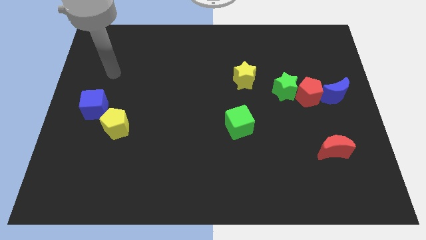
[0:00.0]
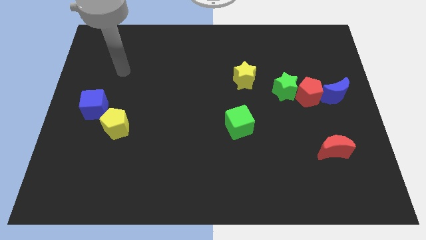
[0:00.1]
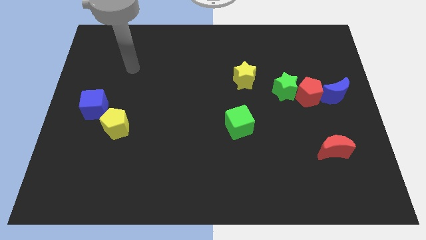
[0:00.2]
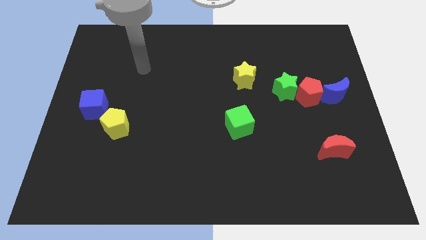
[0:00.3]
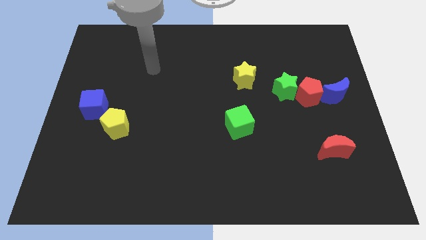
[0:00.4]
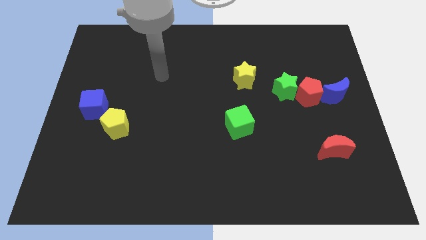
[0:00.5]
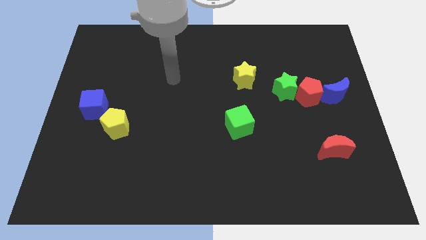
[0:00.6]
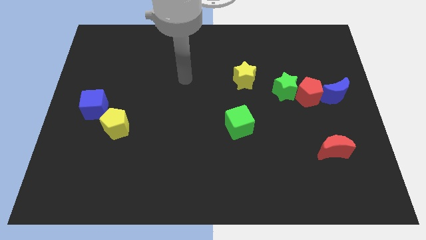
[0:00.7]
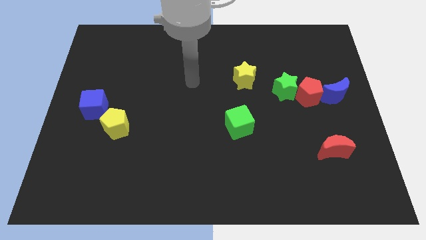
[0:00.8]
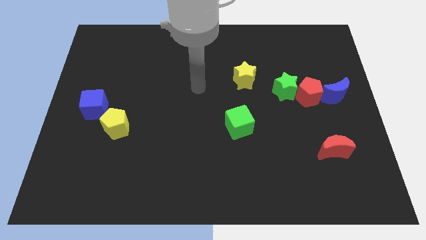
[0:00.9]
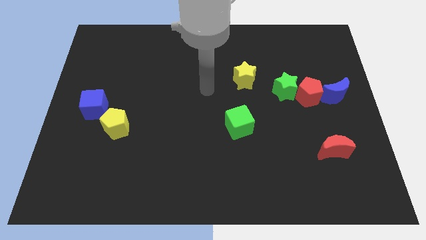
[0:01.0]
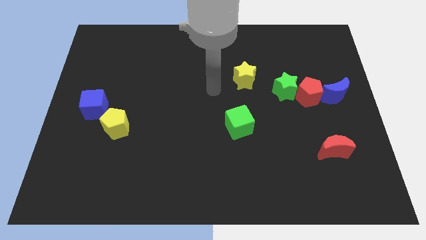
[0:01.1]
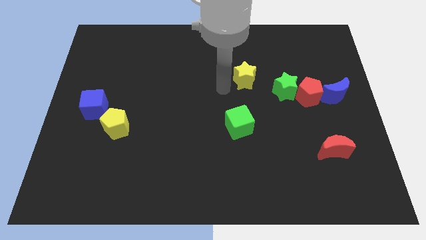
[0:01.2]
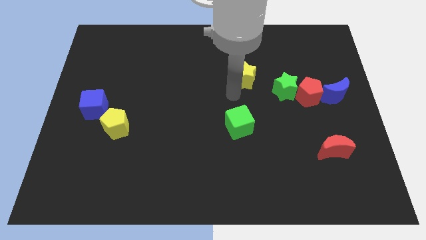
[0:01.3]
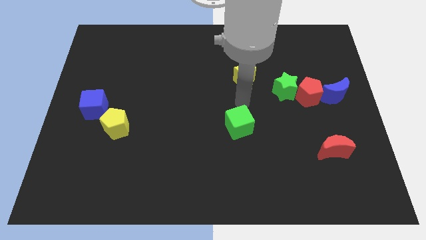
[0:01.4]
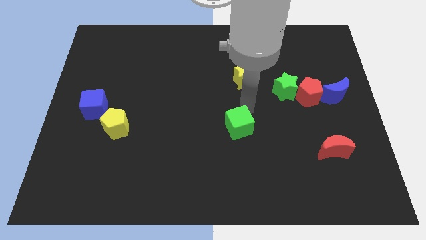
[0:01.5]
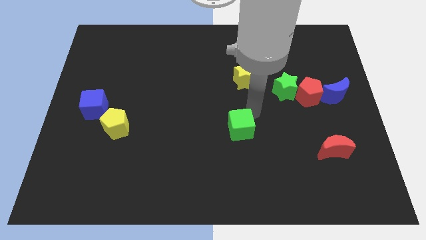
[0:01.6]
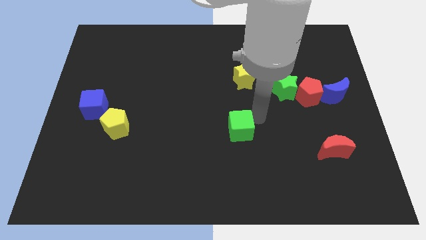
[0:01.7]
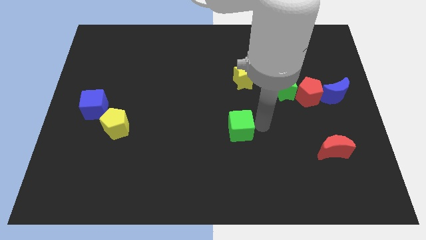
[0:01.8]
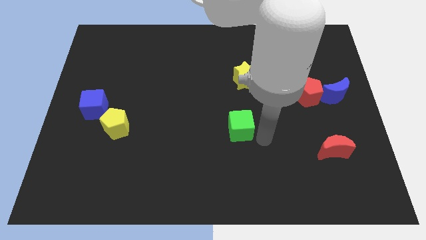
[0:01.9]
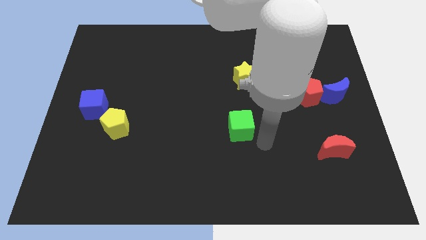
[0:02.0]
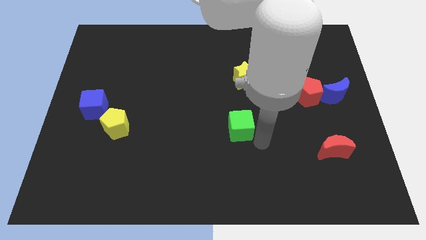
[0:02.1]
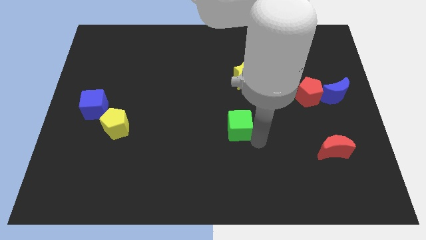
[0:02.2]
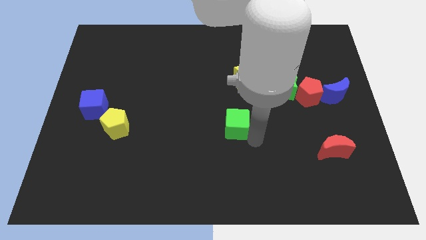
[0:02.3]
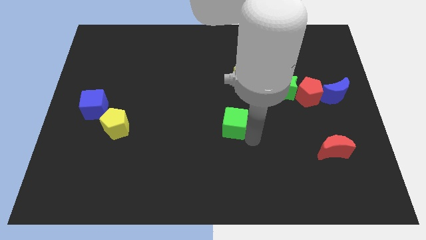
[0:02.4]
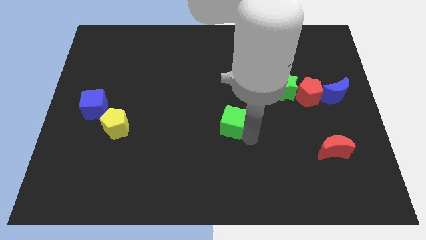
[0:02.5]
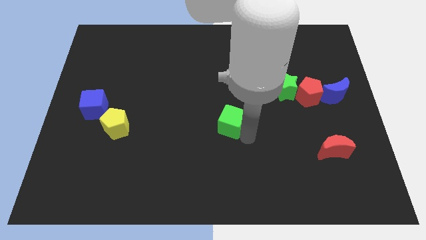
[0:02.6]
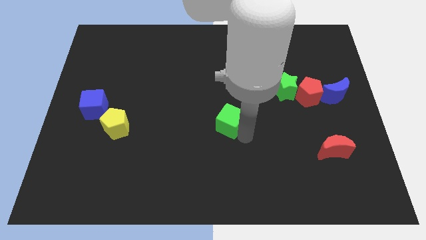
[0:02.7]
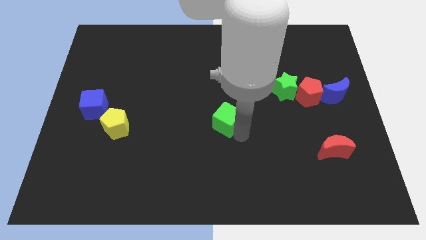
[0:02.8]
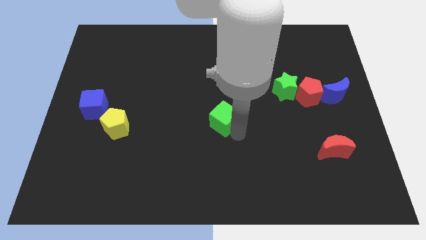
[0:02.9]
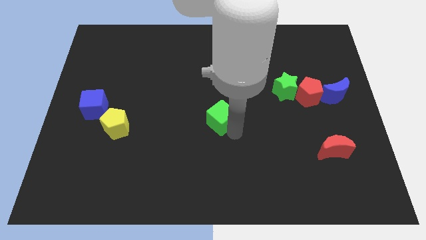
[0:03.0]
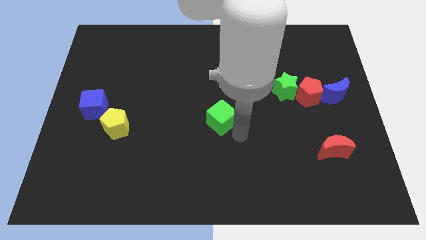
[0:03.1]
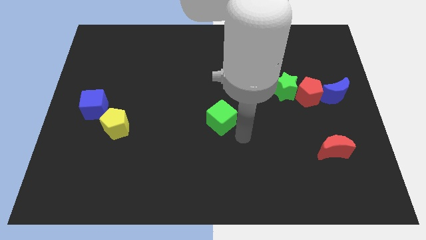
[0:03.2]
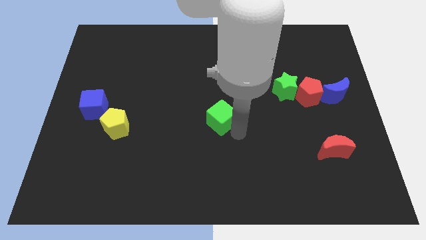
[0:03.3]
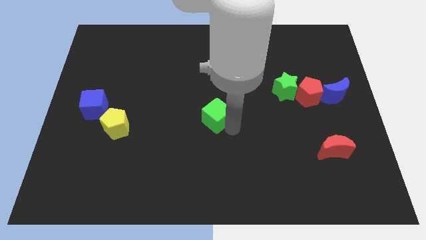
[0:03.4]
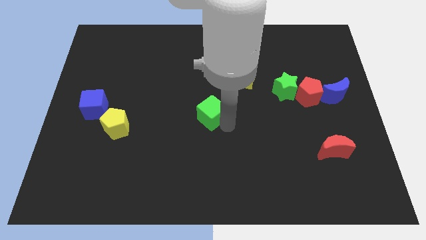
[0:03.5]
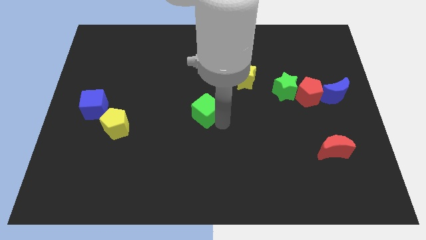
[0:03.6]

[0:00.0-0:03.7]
push the green cube slightly diagonally up and left

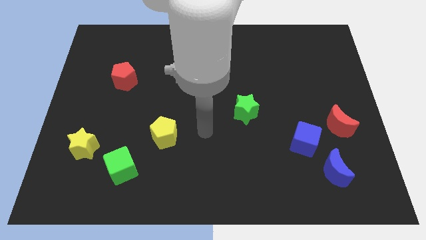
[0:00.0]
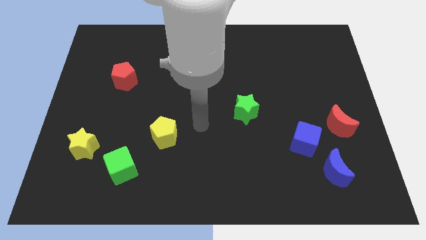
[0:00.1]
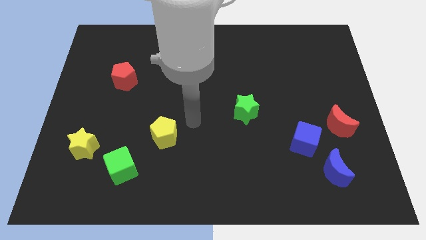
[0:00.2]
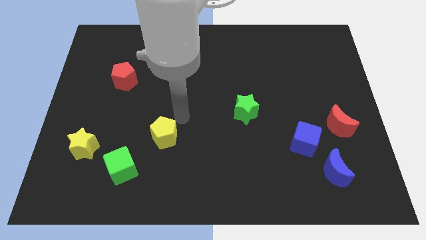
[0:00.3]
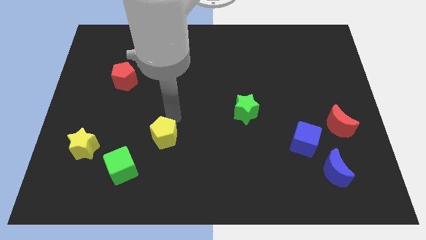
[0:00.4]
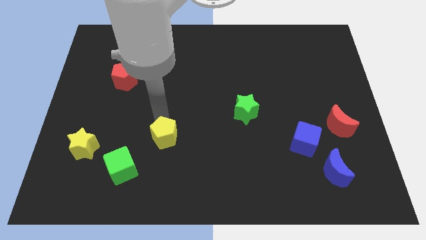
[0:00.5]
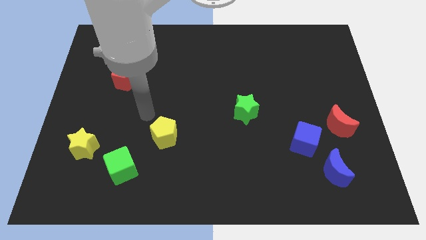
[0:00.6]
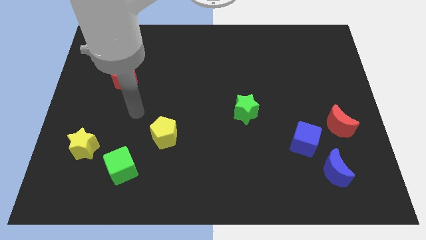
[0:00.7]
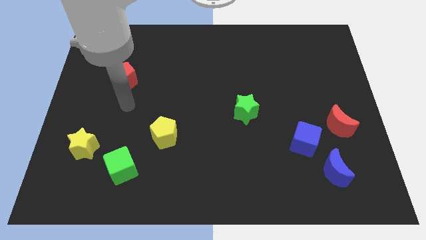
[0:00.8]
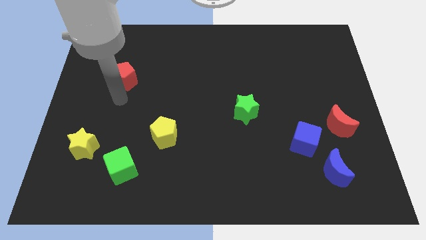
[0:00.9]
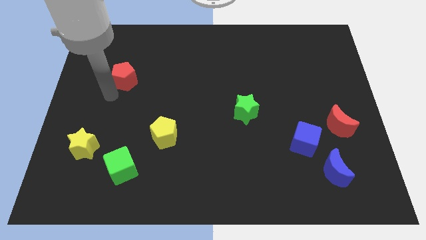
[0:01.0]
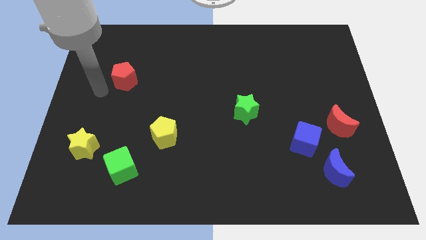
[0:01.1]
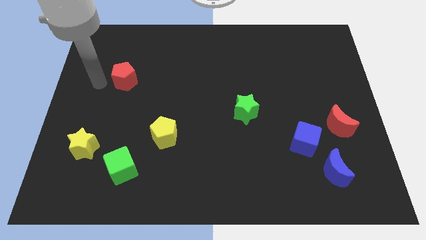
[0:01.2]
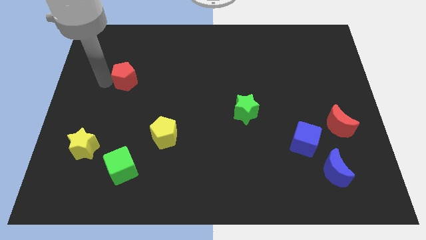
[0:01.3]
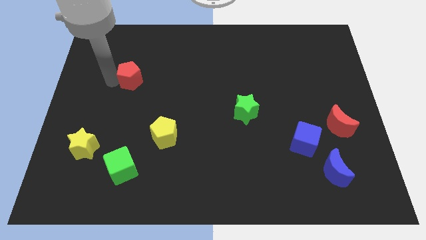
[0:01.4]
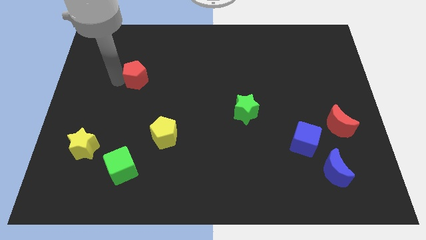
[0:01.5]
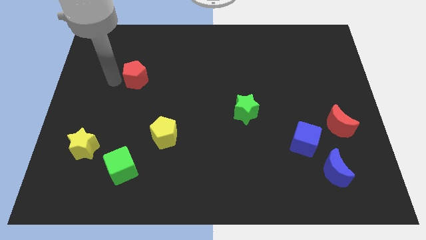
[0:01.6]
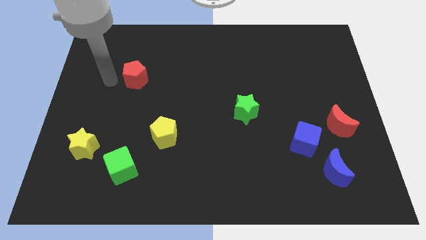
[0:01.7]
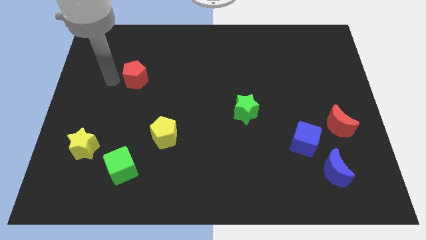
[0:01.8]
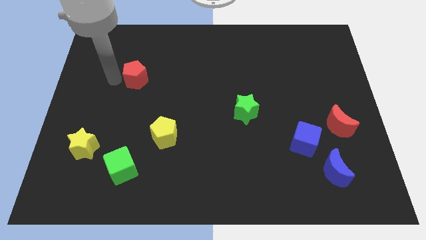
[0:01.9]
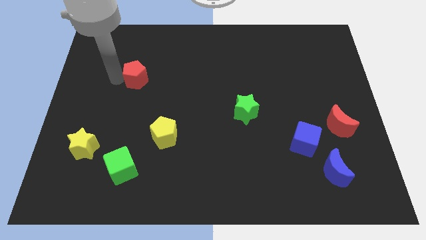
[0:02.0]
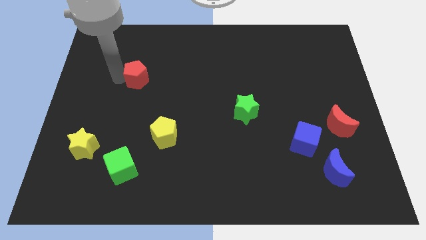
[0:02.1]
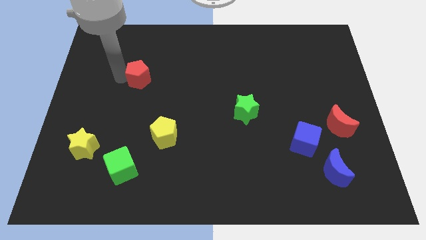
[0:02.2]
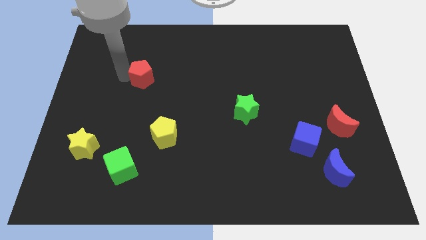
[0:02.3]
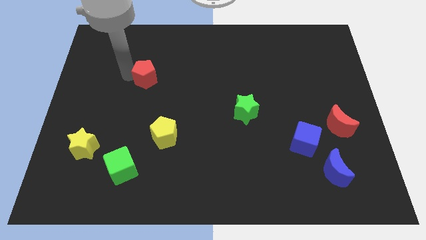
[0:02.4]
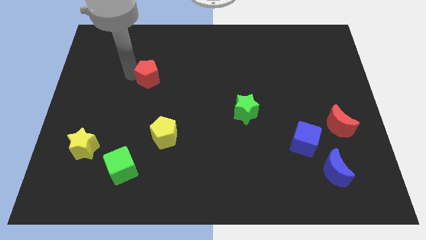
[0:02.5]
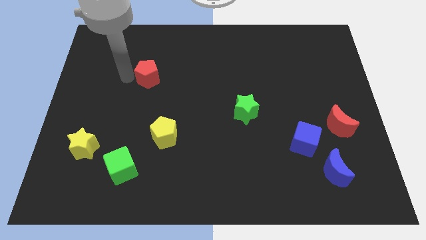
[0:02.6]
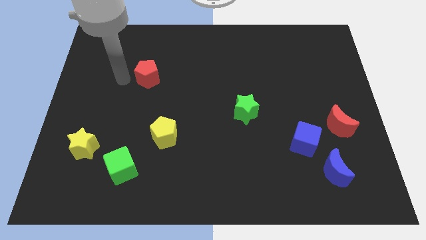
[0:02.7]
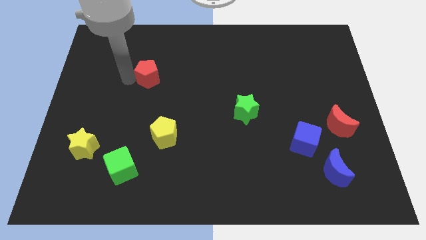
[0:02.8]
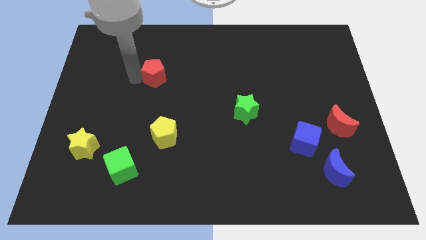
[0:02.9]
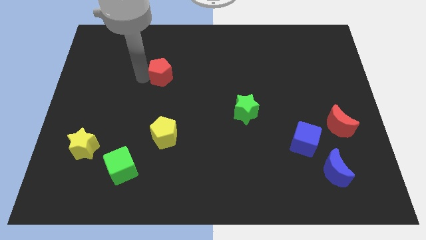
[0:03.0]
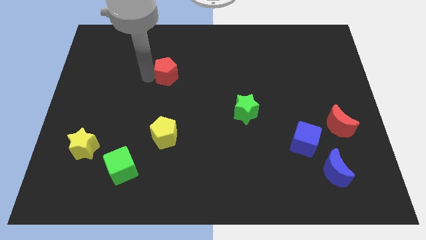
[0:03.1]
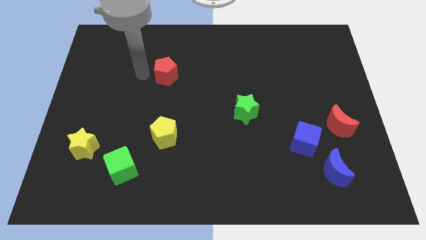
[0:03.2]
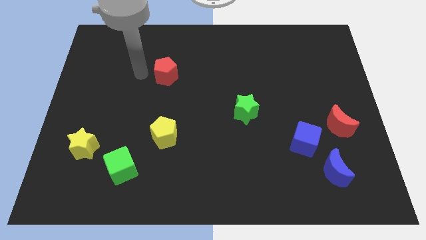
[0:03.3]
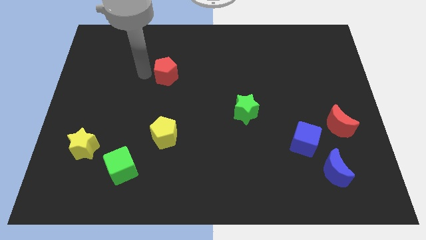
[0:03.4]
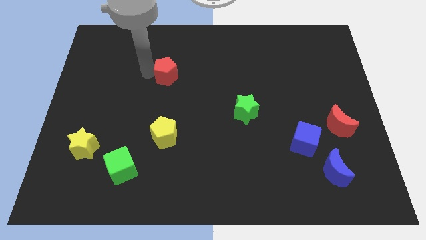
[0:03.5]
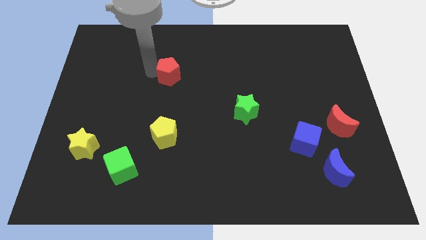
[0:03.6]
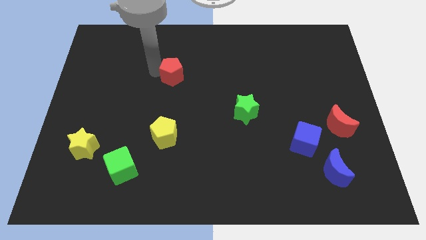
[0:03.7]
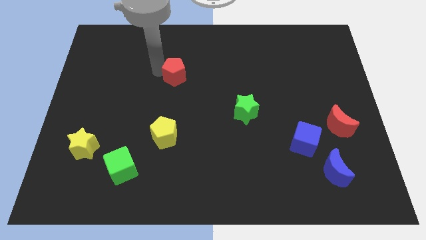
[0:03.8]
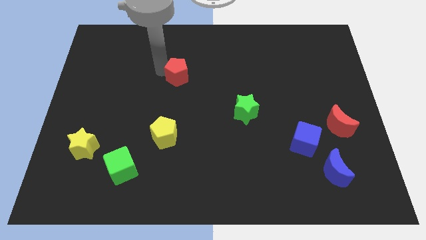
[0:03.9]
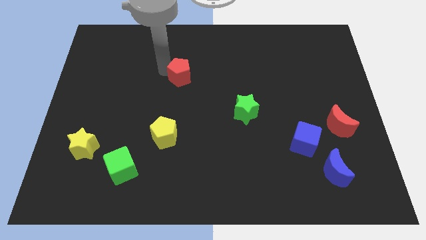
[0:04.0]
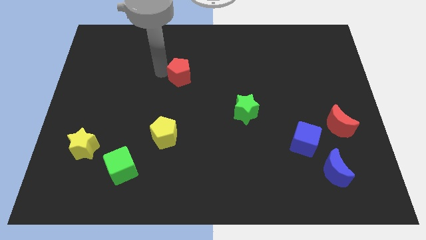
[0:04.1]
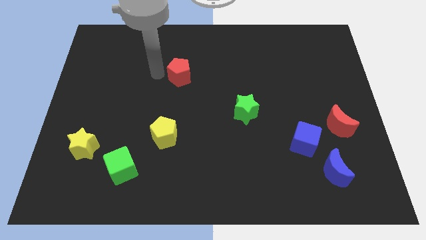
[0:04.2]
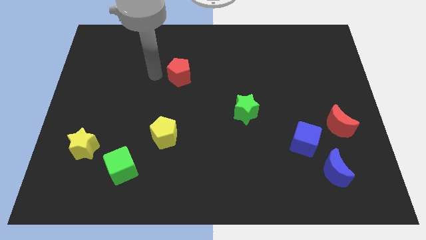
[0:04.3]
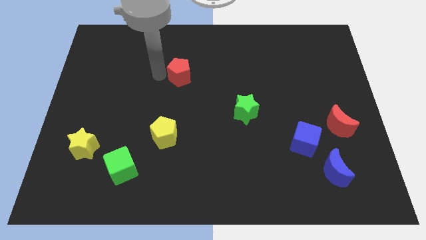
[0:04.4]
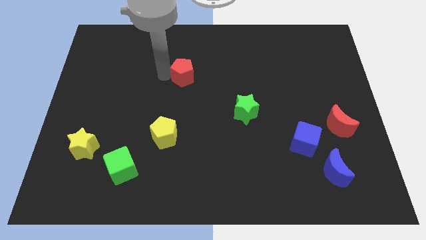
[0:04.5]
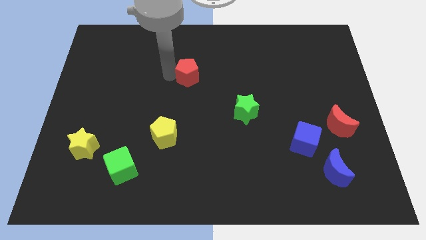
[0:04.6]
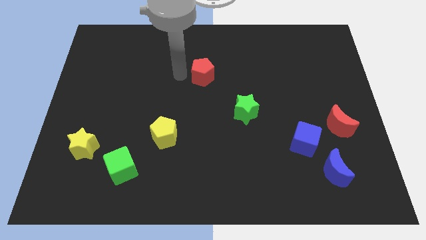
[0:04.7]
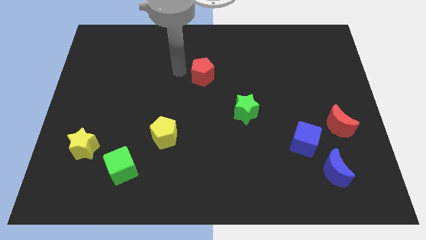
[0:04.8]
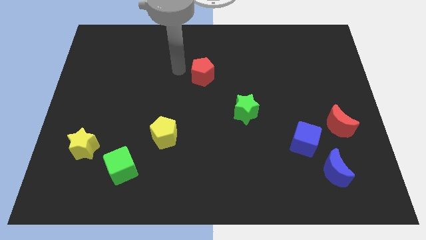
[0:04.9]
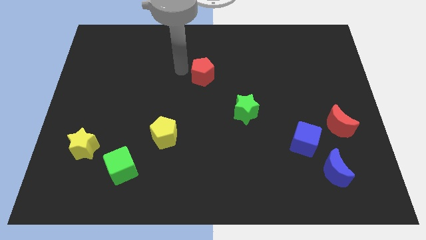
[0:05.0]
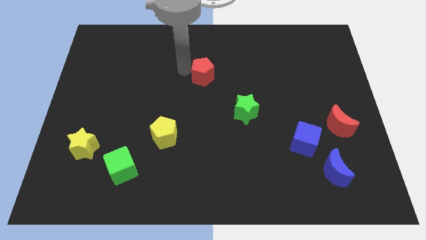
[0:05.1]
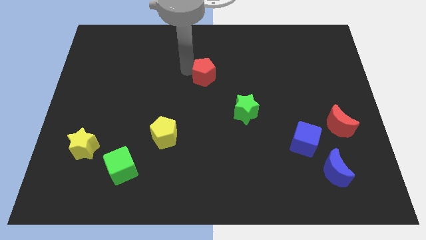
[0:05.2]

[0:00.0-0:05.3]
move the red pentagon right
